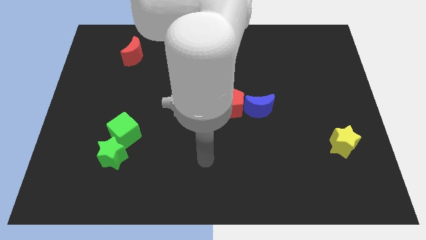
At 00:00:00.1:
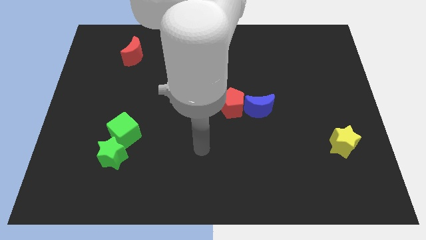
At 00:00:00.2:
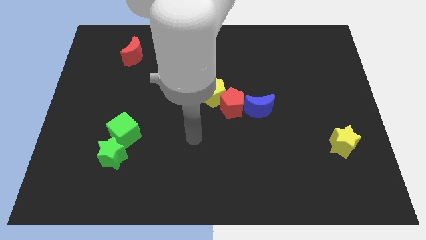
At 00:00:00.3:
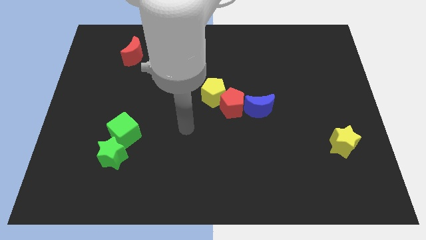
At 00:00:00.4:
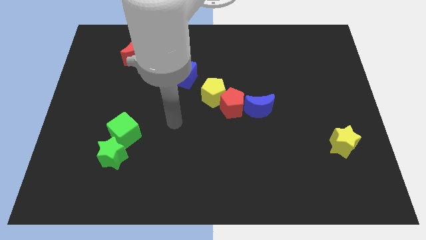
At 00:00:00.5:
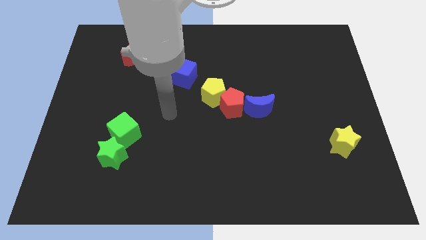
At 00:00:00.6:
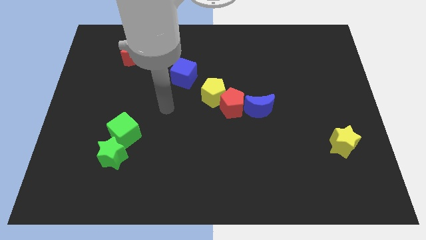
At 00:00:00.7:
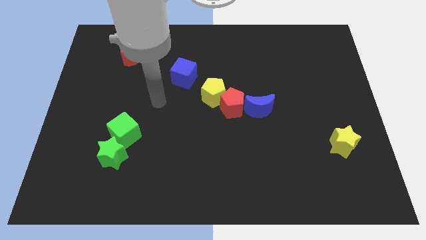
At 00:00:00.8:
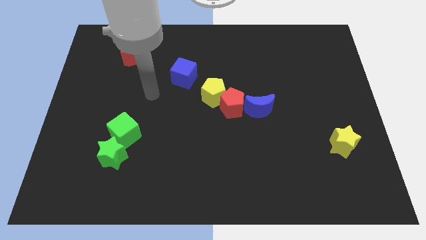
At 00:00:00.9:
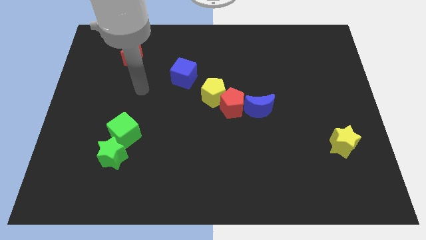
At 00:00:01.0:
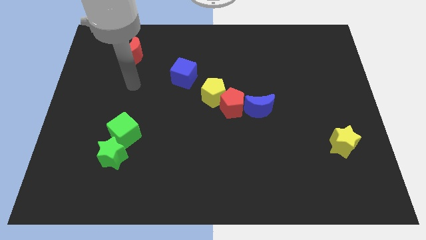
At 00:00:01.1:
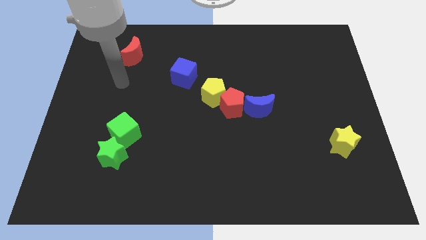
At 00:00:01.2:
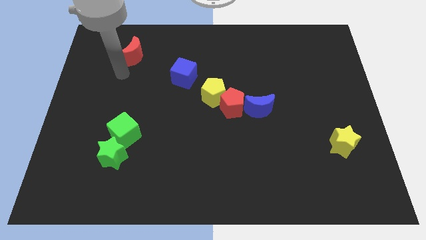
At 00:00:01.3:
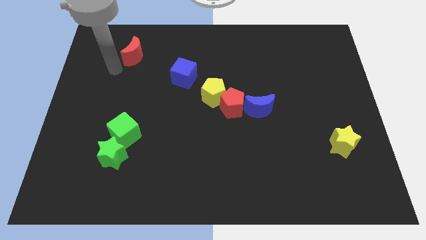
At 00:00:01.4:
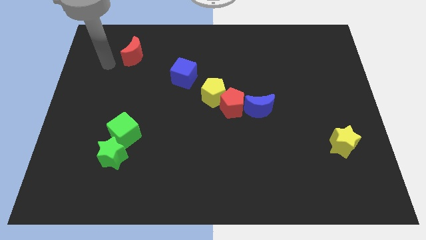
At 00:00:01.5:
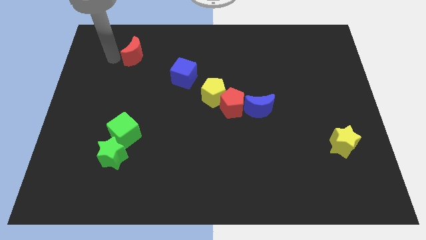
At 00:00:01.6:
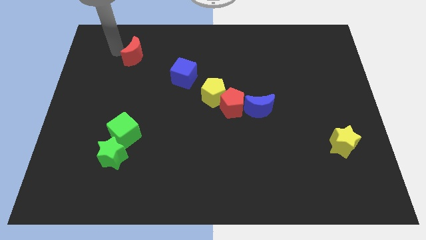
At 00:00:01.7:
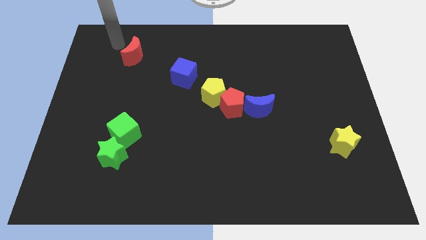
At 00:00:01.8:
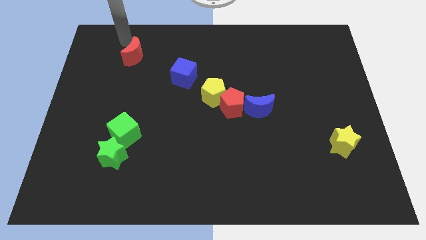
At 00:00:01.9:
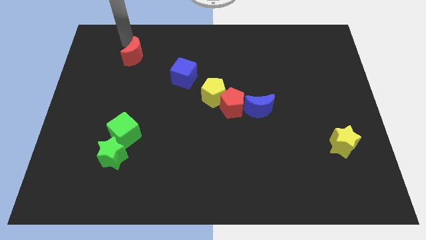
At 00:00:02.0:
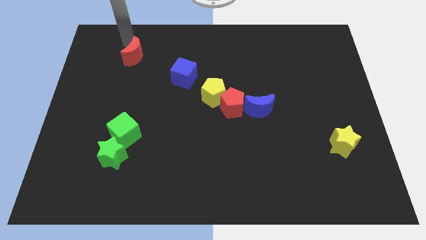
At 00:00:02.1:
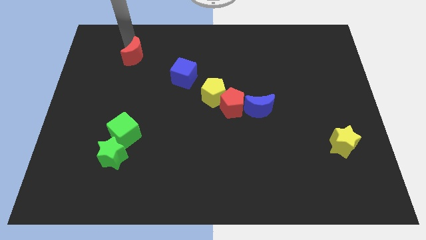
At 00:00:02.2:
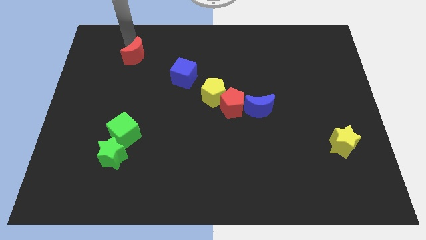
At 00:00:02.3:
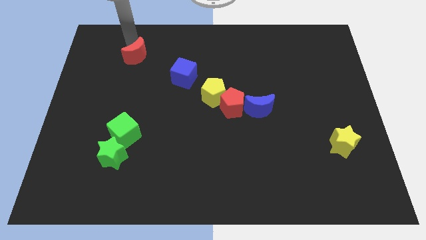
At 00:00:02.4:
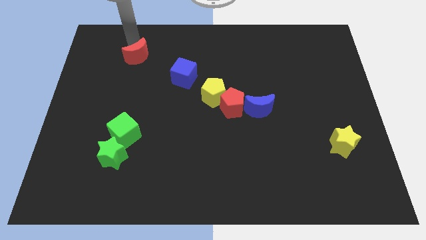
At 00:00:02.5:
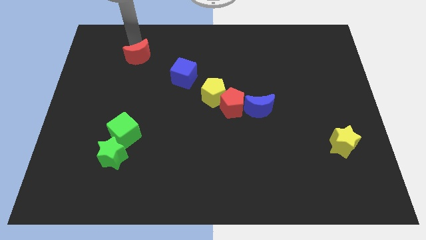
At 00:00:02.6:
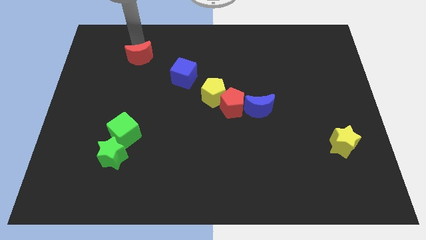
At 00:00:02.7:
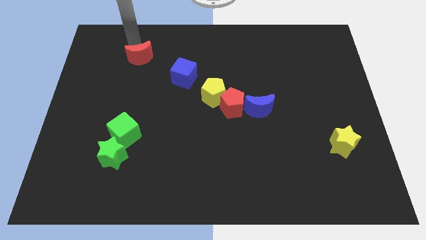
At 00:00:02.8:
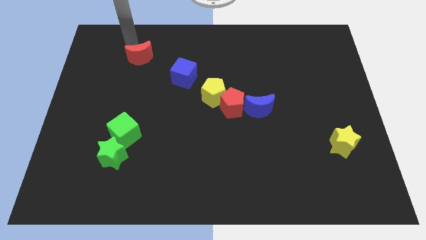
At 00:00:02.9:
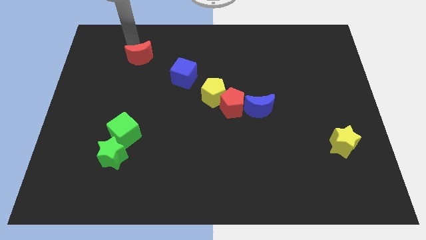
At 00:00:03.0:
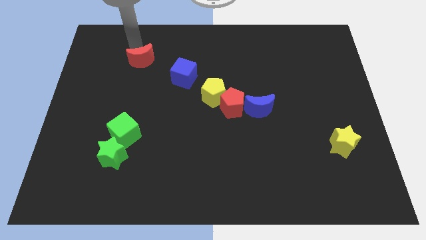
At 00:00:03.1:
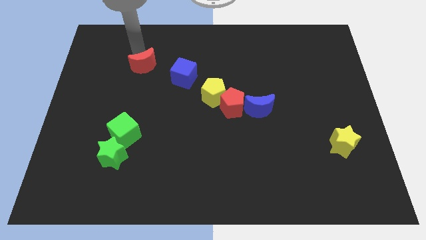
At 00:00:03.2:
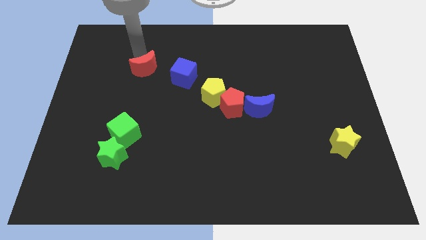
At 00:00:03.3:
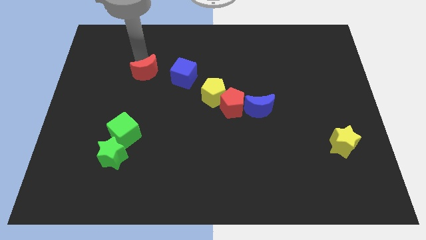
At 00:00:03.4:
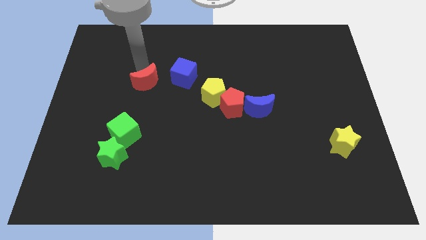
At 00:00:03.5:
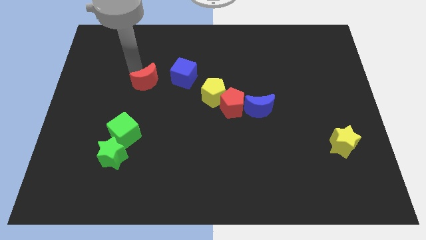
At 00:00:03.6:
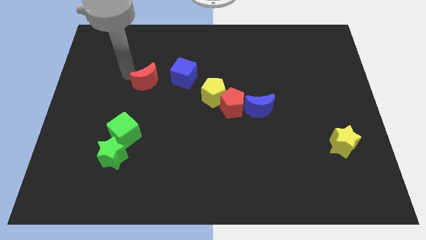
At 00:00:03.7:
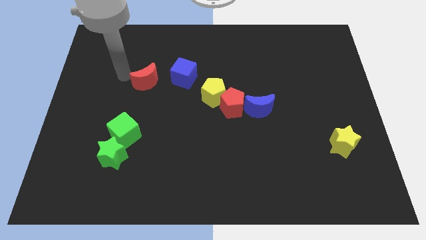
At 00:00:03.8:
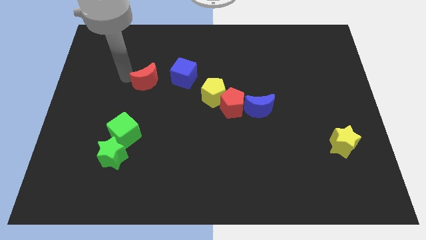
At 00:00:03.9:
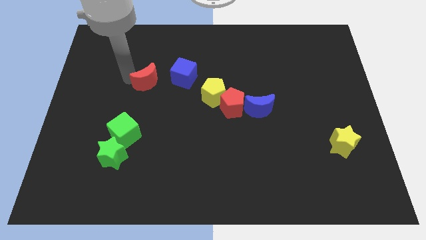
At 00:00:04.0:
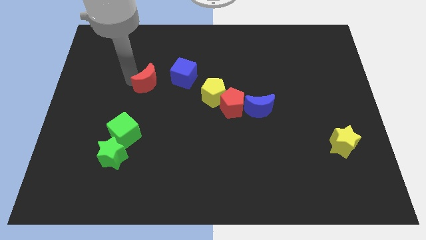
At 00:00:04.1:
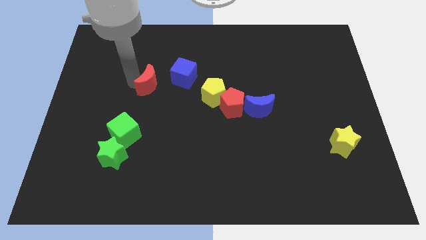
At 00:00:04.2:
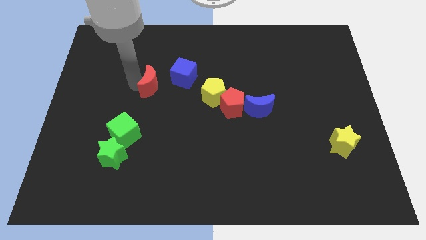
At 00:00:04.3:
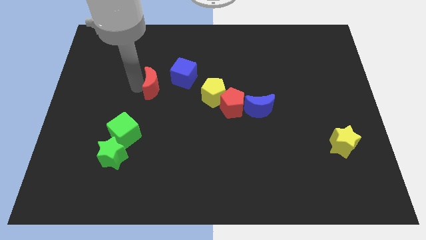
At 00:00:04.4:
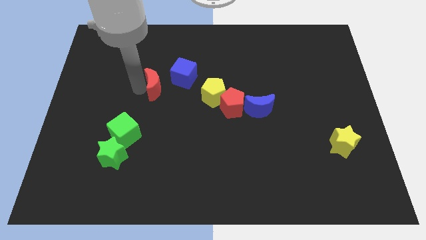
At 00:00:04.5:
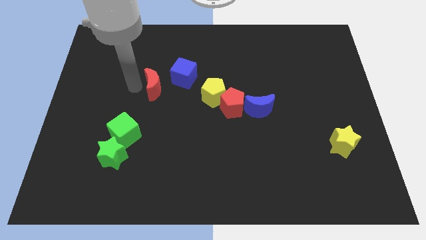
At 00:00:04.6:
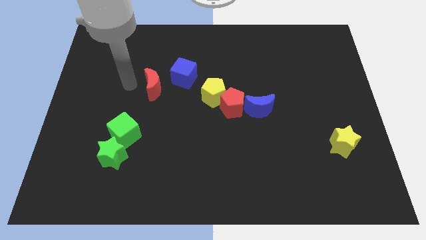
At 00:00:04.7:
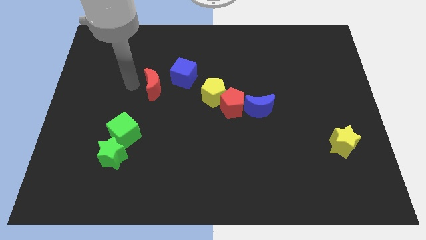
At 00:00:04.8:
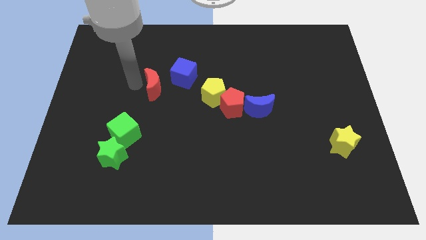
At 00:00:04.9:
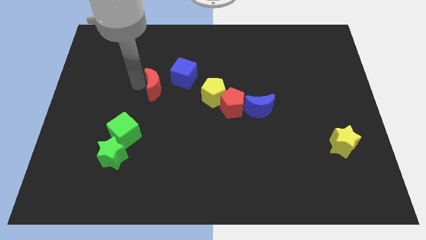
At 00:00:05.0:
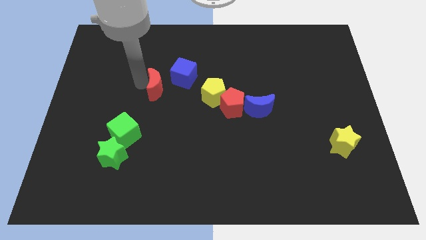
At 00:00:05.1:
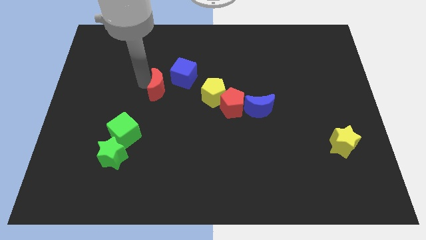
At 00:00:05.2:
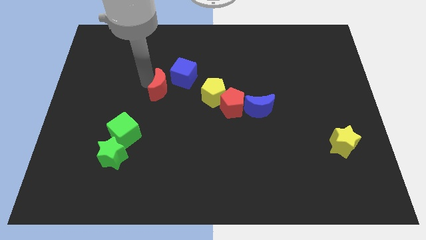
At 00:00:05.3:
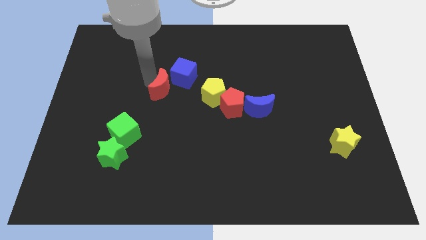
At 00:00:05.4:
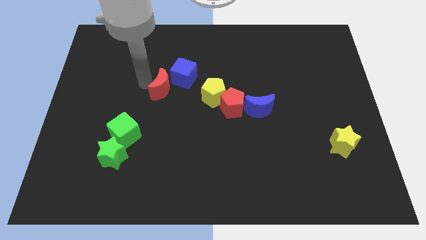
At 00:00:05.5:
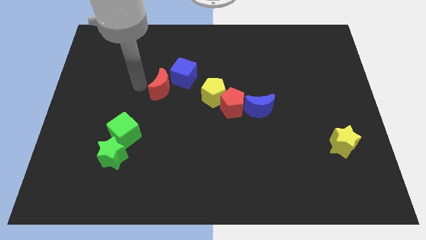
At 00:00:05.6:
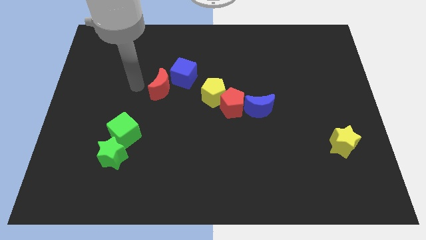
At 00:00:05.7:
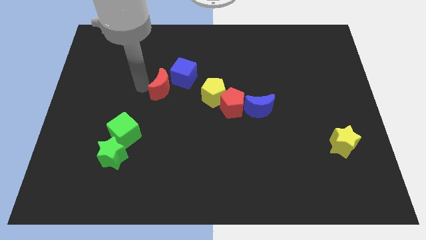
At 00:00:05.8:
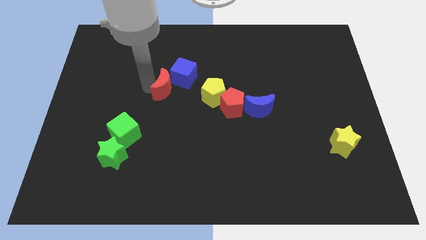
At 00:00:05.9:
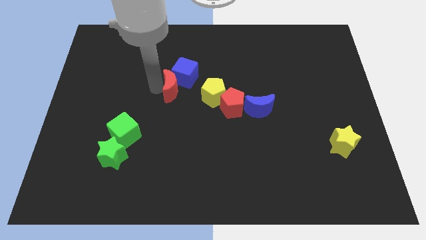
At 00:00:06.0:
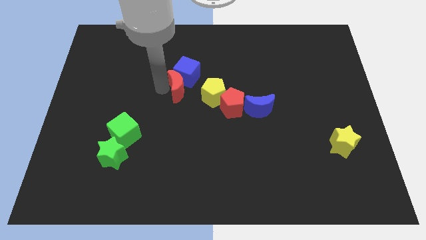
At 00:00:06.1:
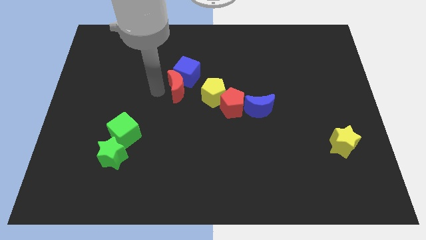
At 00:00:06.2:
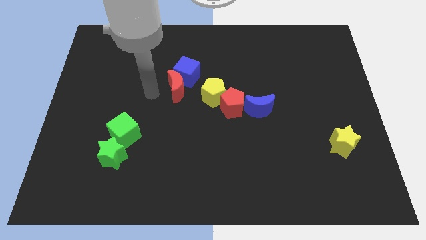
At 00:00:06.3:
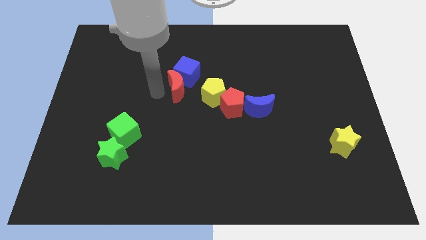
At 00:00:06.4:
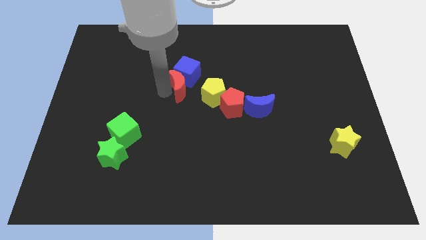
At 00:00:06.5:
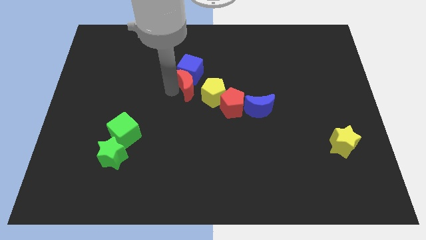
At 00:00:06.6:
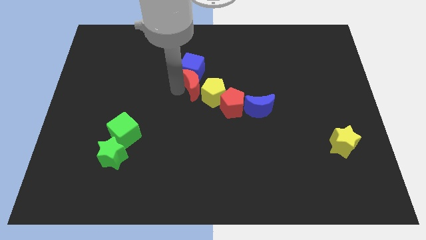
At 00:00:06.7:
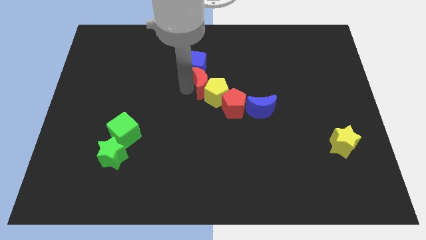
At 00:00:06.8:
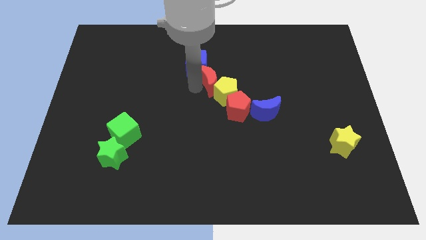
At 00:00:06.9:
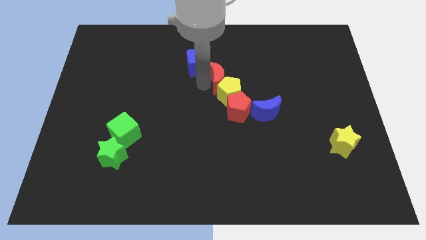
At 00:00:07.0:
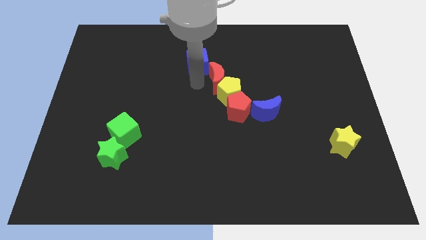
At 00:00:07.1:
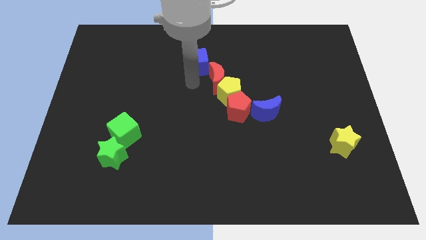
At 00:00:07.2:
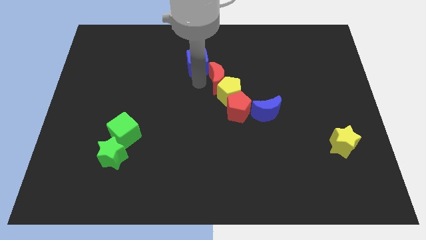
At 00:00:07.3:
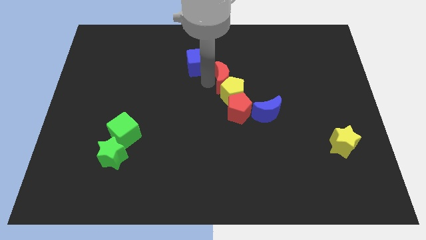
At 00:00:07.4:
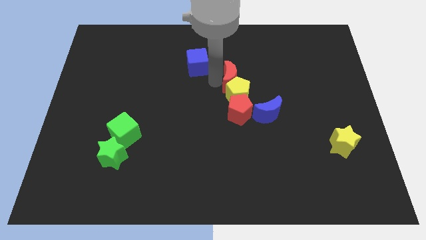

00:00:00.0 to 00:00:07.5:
push the red moon to the top right of the yellow pentagon
